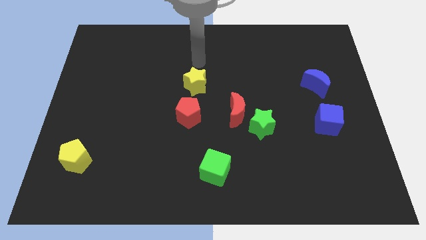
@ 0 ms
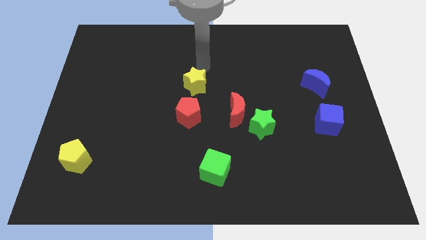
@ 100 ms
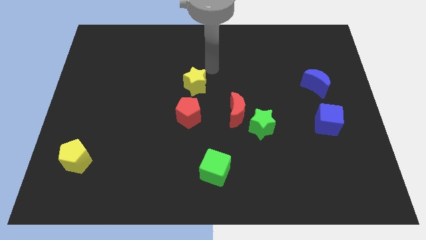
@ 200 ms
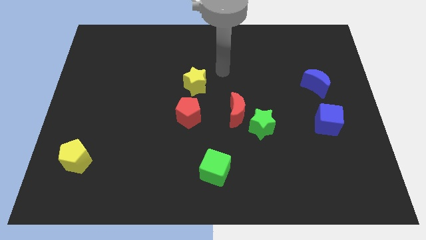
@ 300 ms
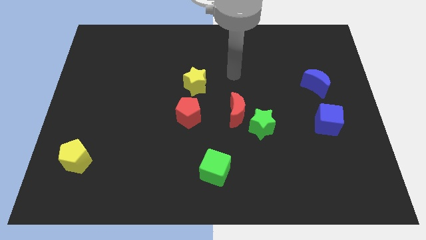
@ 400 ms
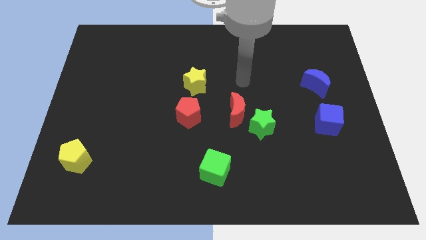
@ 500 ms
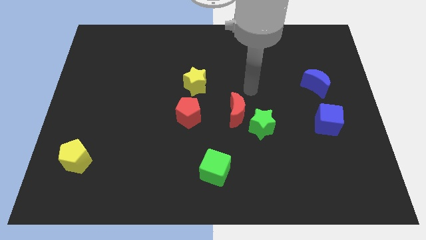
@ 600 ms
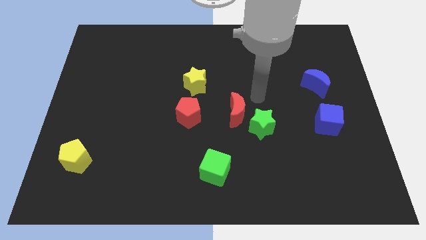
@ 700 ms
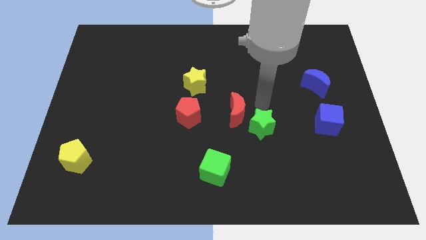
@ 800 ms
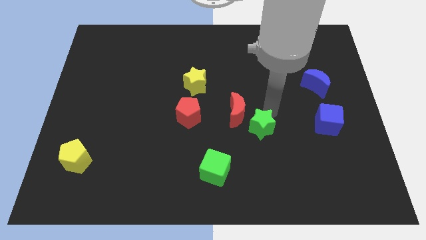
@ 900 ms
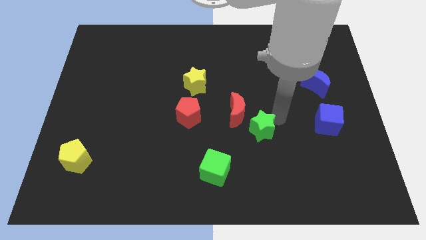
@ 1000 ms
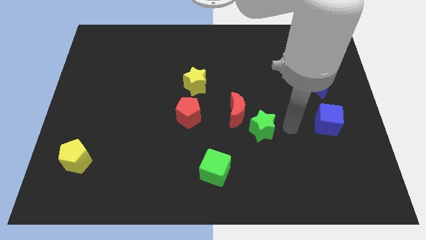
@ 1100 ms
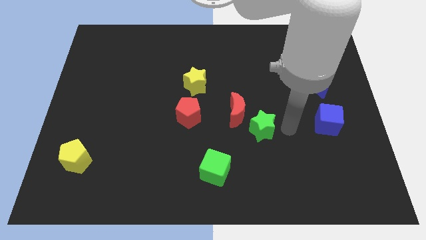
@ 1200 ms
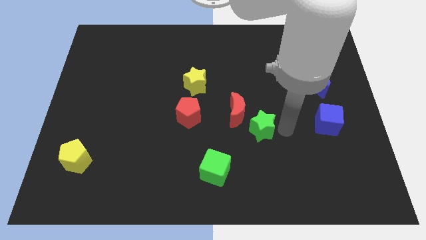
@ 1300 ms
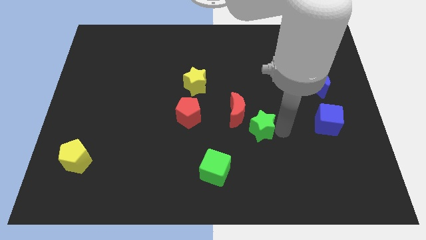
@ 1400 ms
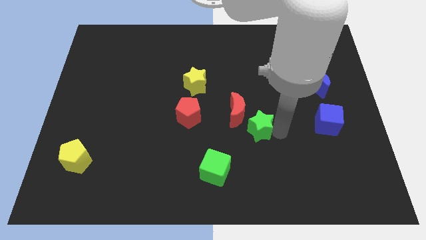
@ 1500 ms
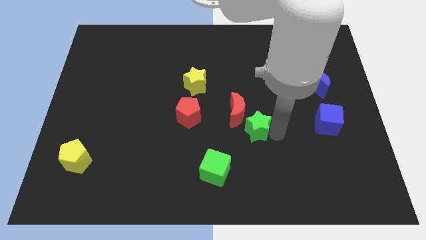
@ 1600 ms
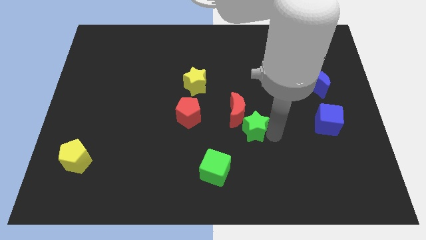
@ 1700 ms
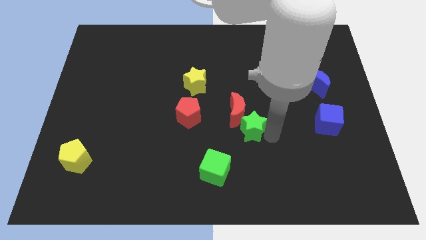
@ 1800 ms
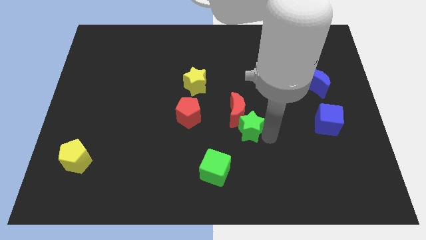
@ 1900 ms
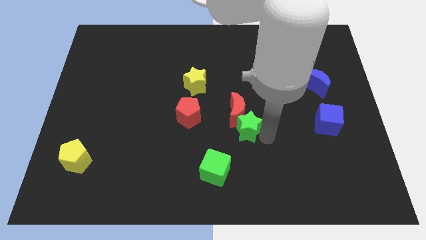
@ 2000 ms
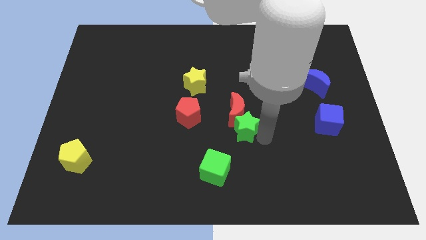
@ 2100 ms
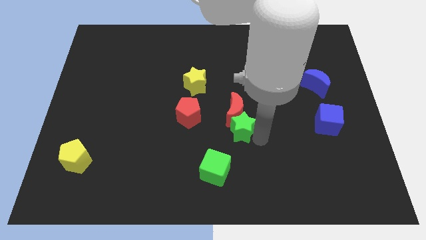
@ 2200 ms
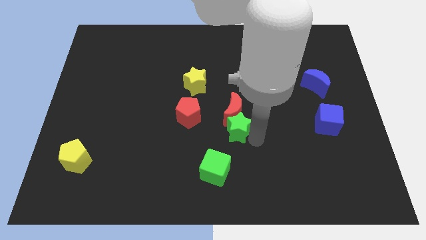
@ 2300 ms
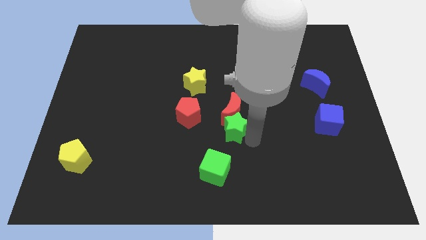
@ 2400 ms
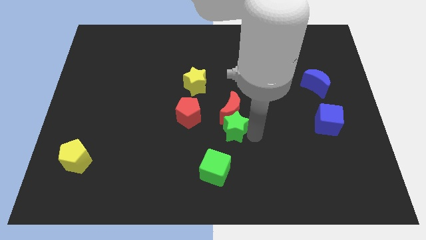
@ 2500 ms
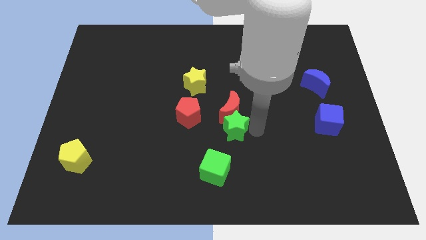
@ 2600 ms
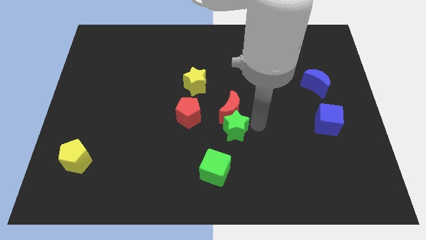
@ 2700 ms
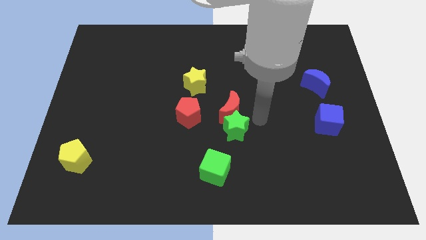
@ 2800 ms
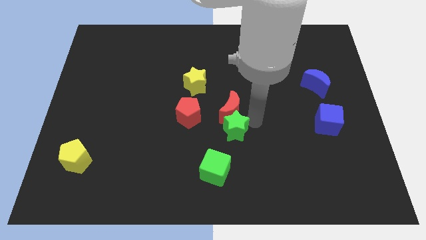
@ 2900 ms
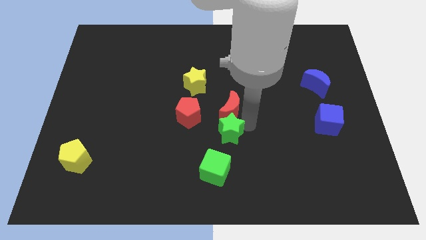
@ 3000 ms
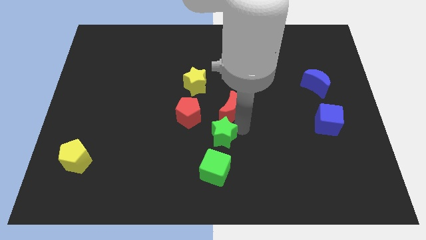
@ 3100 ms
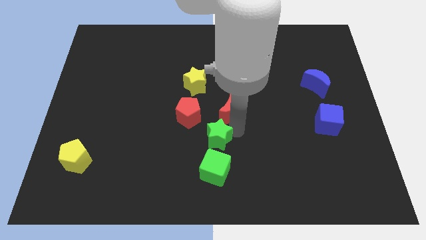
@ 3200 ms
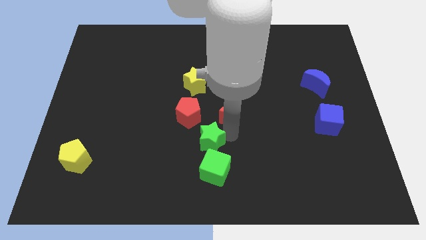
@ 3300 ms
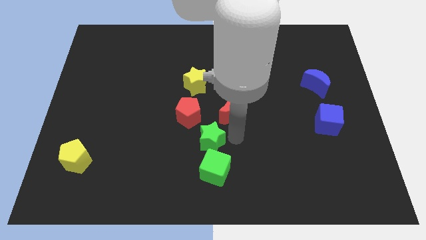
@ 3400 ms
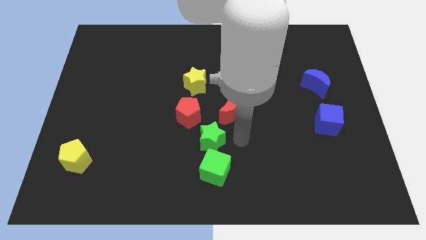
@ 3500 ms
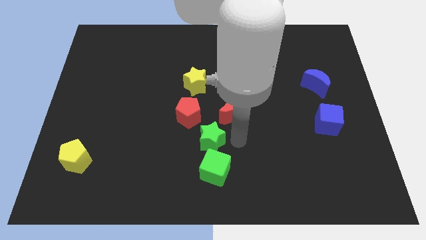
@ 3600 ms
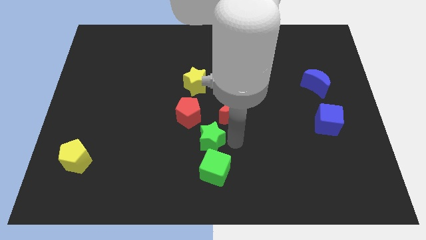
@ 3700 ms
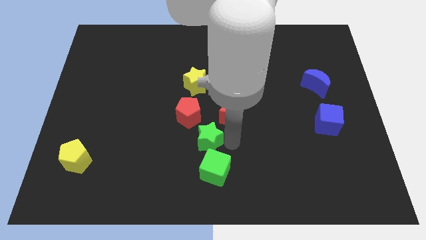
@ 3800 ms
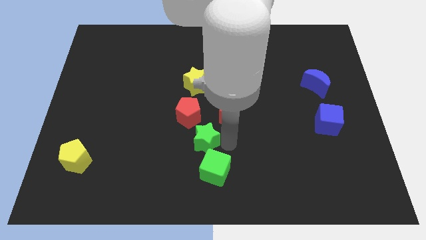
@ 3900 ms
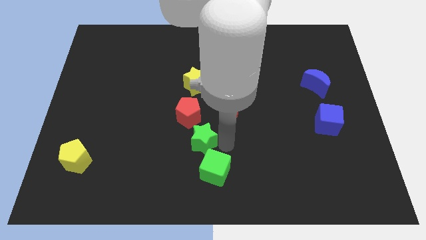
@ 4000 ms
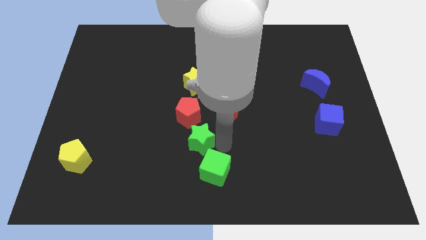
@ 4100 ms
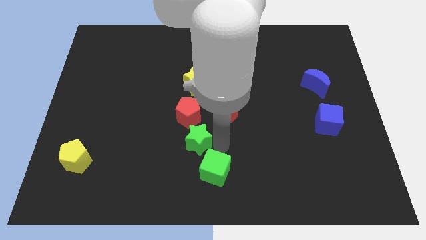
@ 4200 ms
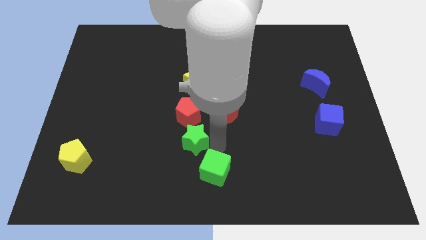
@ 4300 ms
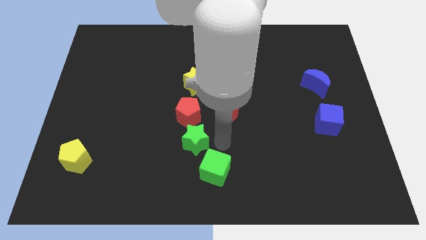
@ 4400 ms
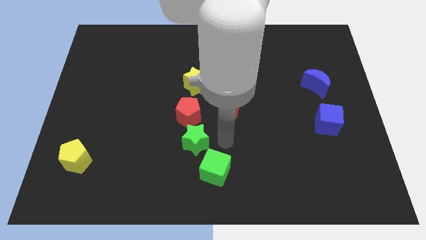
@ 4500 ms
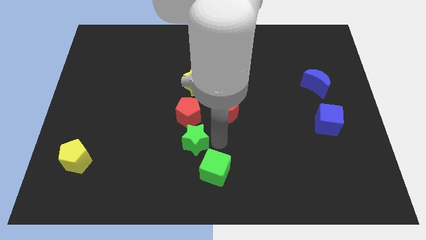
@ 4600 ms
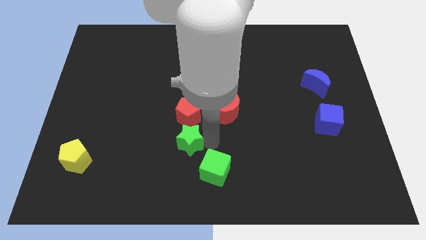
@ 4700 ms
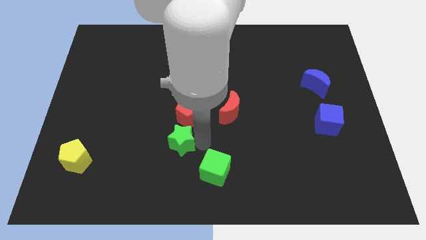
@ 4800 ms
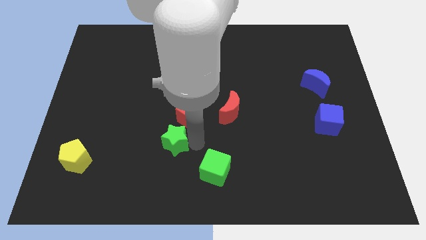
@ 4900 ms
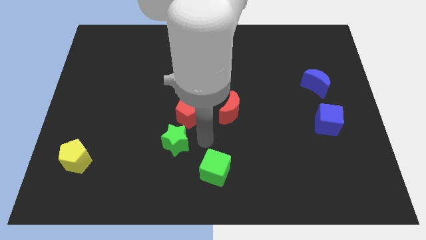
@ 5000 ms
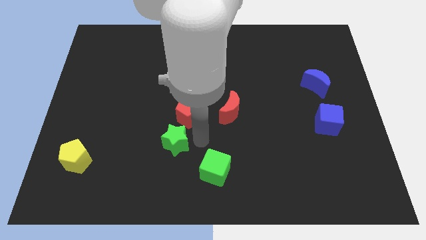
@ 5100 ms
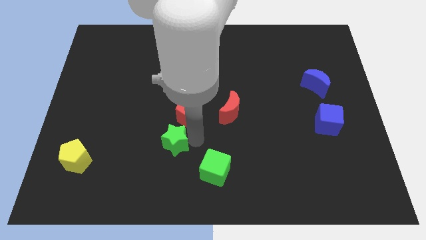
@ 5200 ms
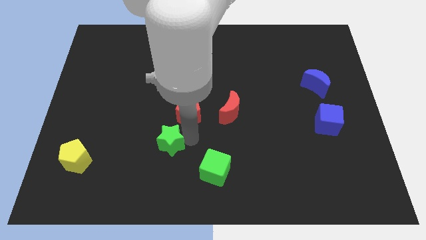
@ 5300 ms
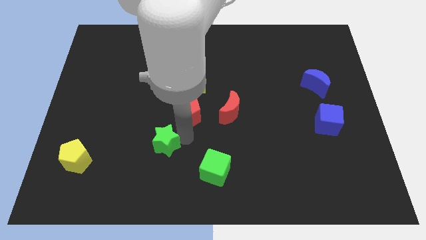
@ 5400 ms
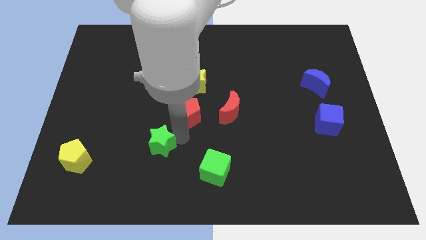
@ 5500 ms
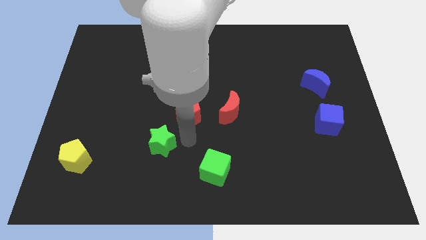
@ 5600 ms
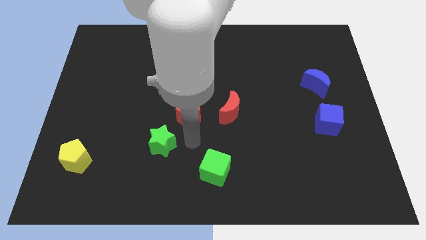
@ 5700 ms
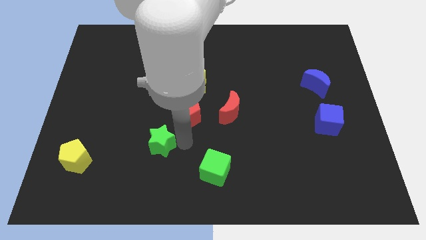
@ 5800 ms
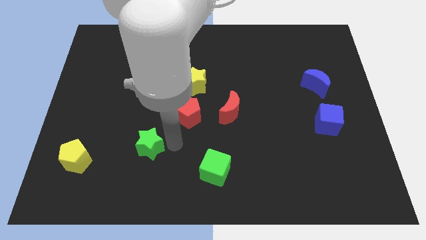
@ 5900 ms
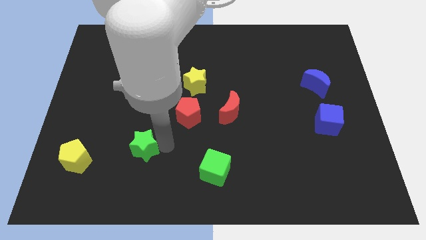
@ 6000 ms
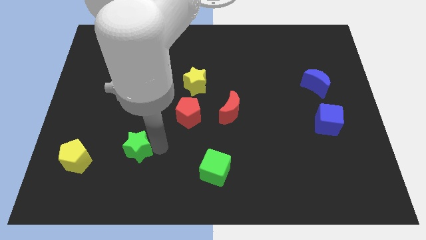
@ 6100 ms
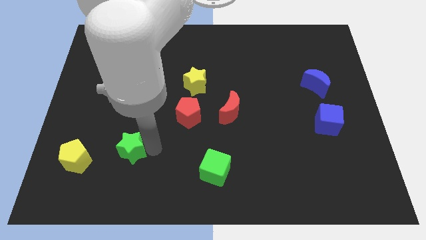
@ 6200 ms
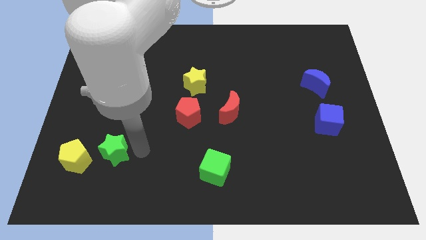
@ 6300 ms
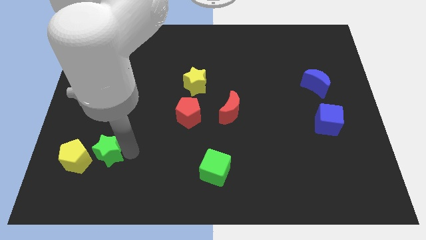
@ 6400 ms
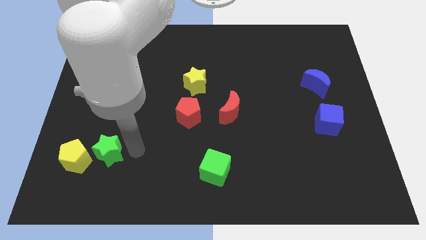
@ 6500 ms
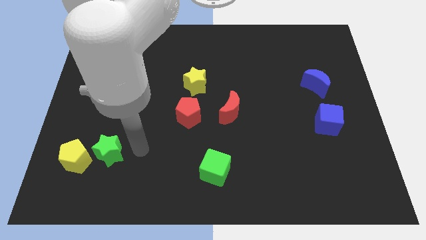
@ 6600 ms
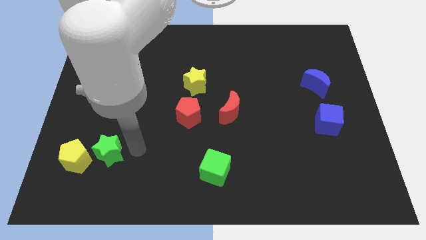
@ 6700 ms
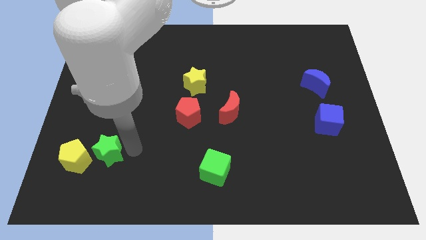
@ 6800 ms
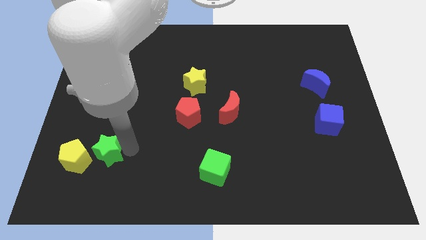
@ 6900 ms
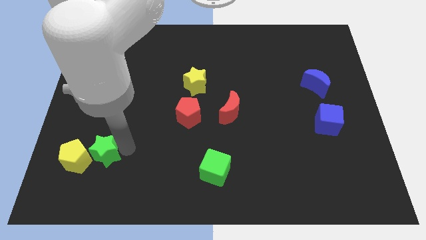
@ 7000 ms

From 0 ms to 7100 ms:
put the green star next to the yellow pentagon

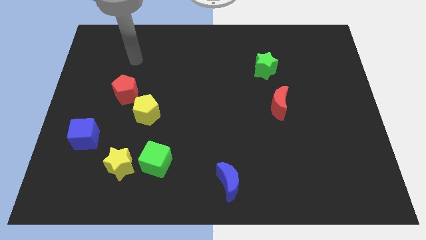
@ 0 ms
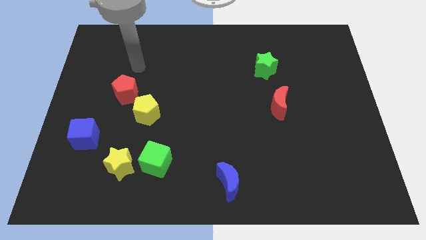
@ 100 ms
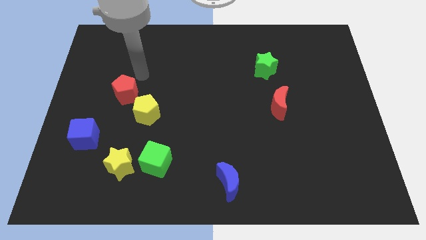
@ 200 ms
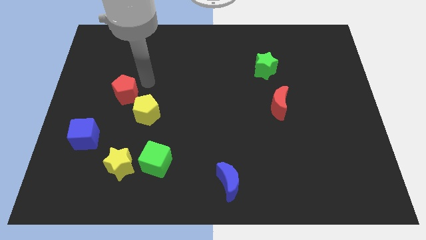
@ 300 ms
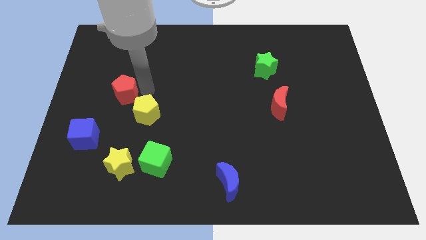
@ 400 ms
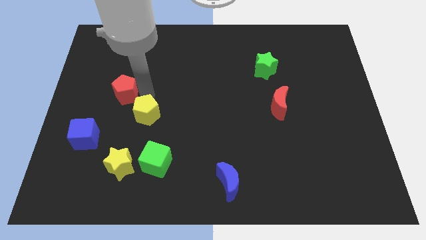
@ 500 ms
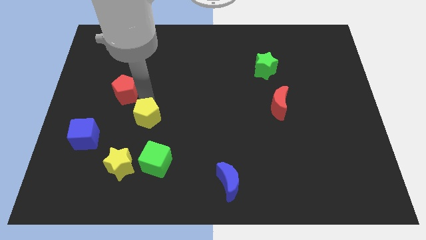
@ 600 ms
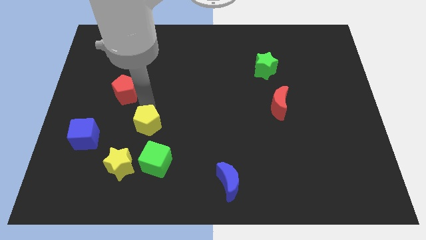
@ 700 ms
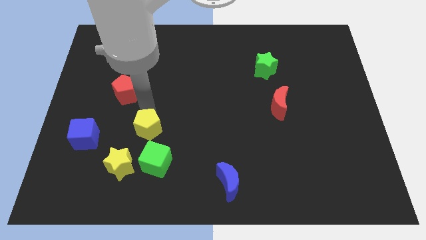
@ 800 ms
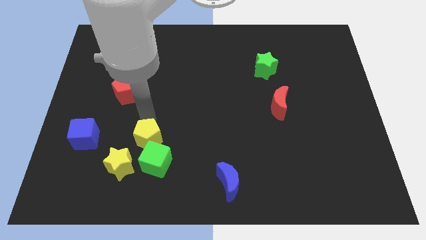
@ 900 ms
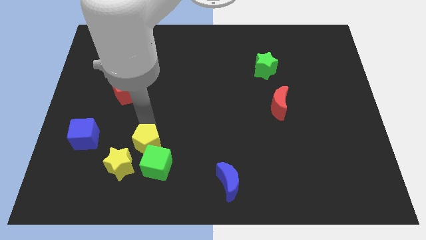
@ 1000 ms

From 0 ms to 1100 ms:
put the yellow pentagon close to the green cube
